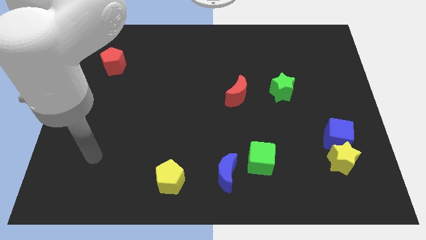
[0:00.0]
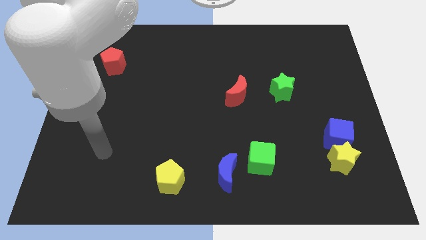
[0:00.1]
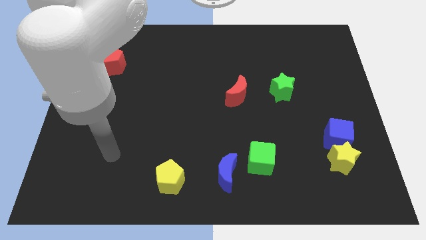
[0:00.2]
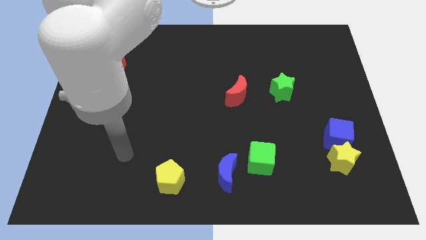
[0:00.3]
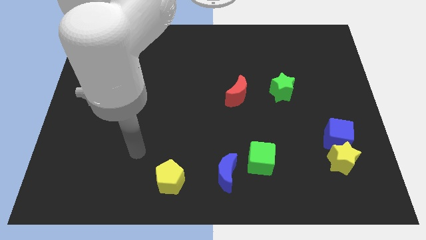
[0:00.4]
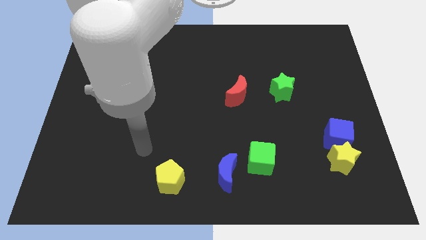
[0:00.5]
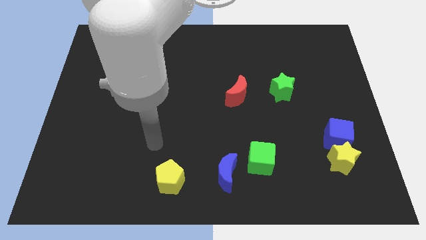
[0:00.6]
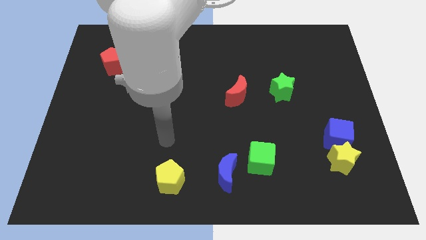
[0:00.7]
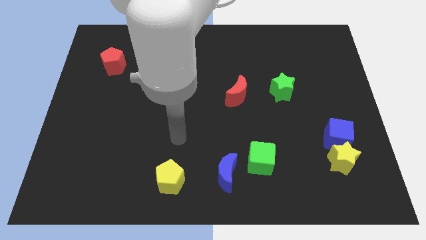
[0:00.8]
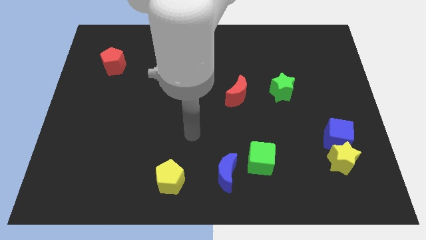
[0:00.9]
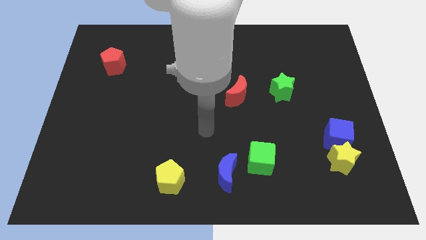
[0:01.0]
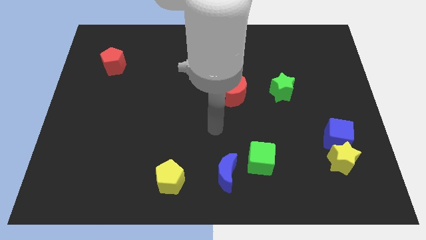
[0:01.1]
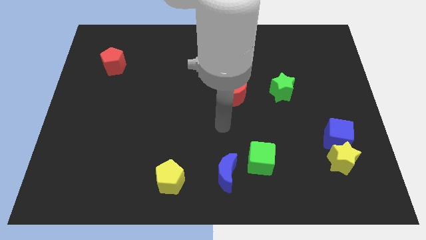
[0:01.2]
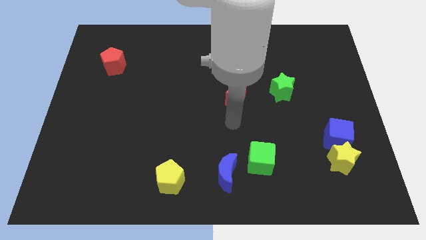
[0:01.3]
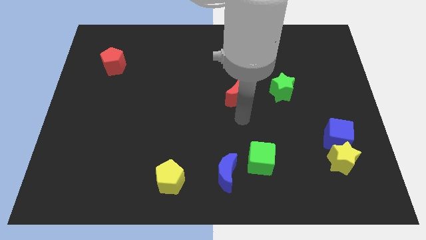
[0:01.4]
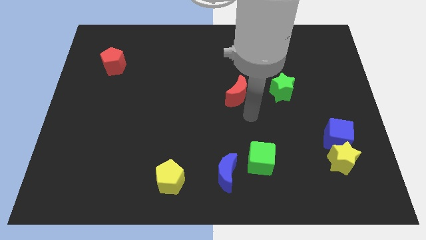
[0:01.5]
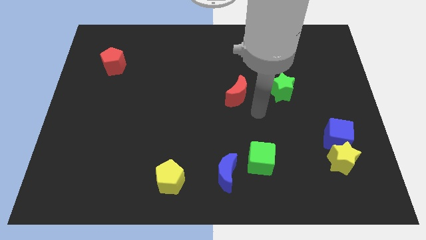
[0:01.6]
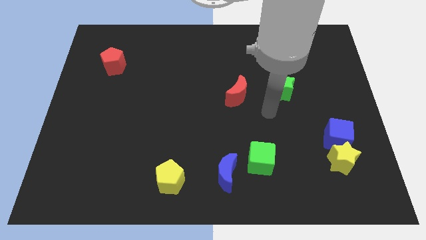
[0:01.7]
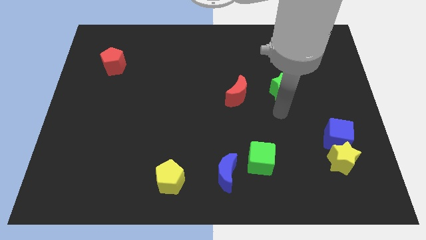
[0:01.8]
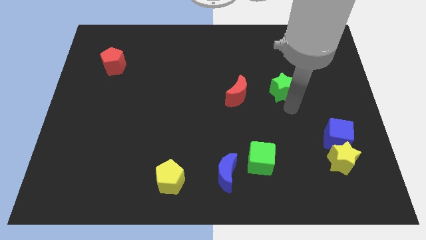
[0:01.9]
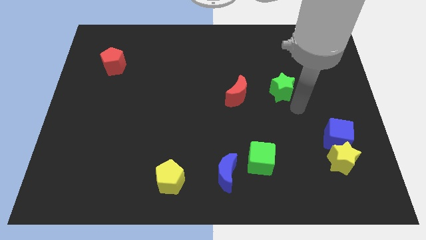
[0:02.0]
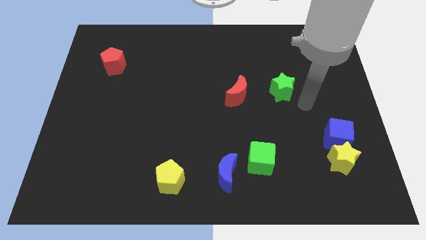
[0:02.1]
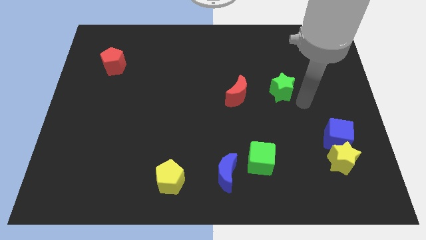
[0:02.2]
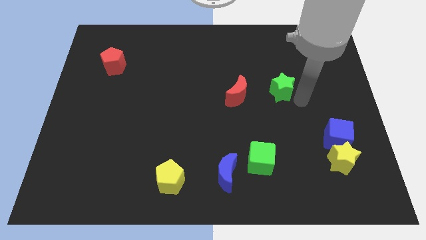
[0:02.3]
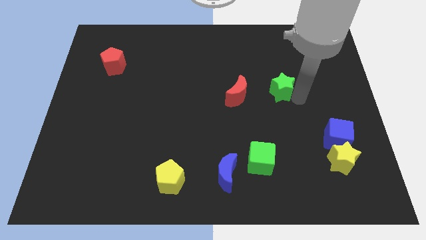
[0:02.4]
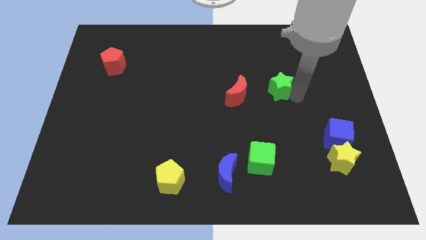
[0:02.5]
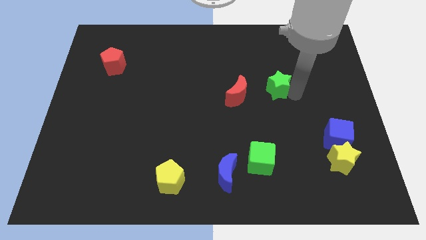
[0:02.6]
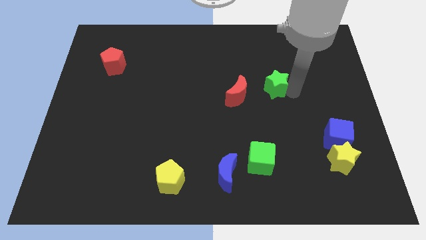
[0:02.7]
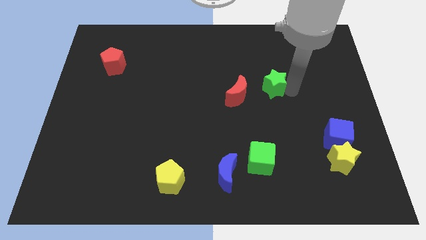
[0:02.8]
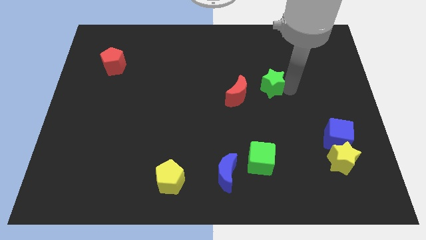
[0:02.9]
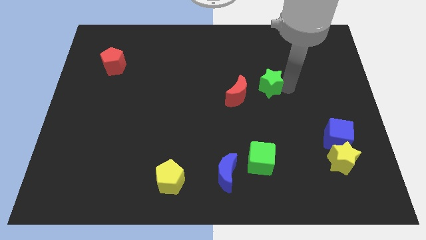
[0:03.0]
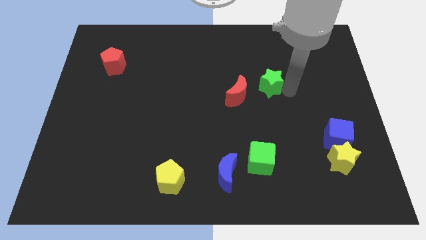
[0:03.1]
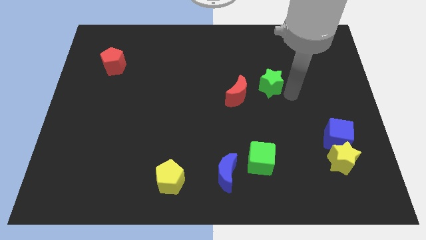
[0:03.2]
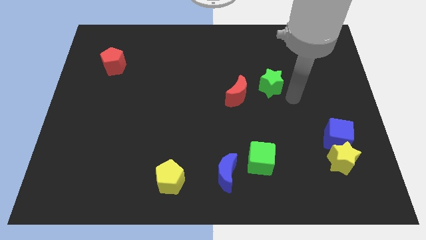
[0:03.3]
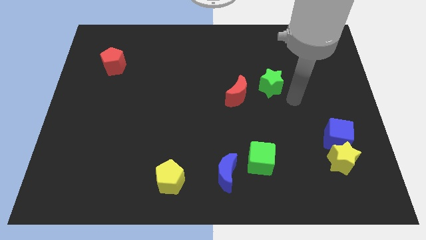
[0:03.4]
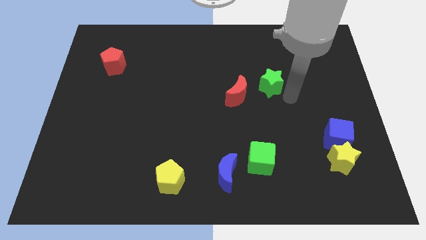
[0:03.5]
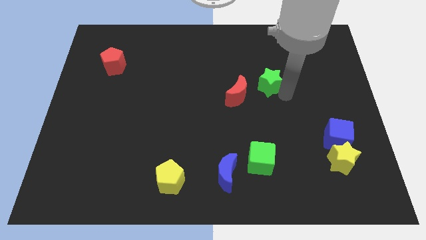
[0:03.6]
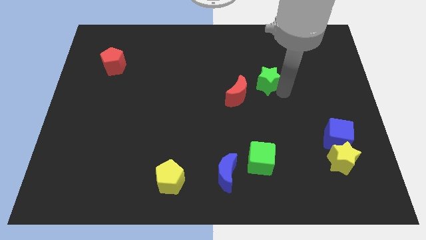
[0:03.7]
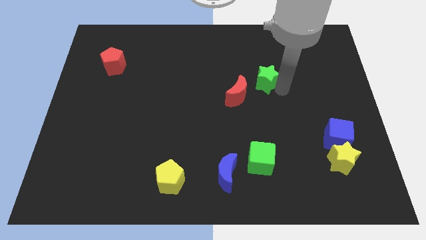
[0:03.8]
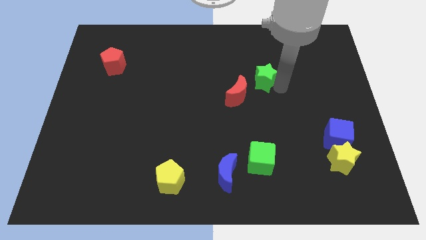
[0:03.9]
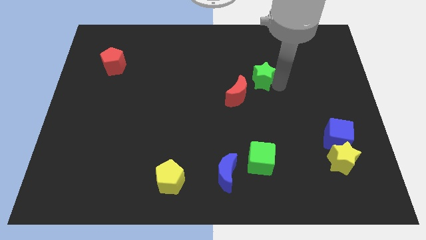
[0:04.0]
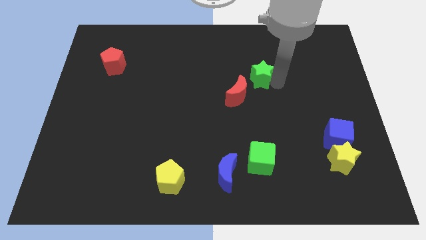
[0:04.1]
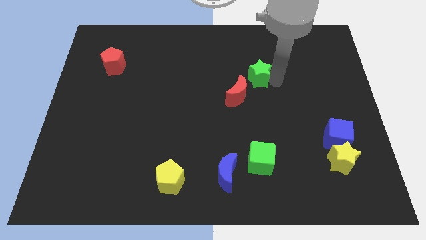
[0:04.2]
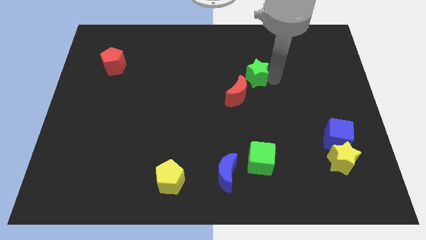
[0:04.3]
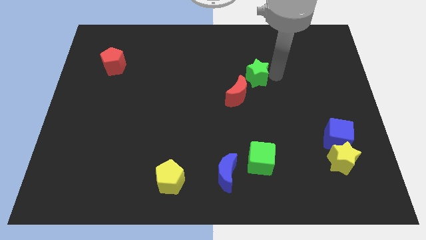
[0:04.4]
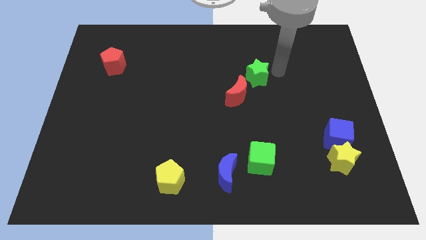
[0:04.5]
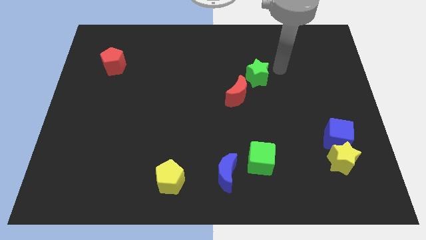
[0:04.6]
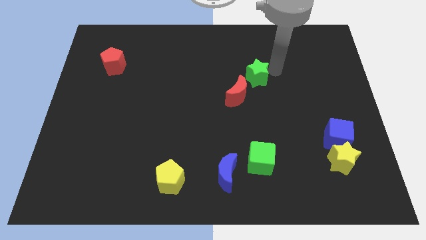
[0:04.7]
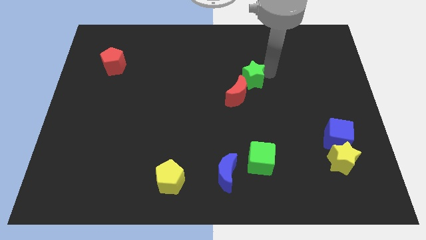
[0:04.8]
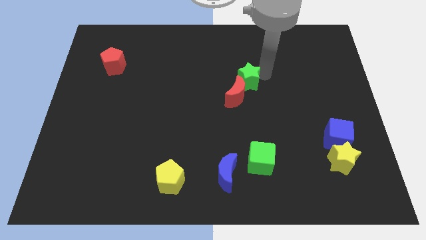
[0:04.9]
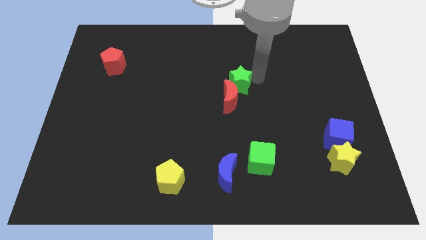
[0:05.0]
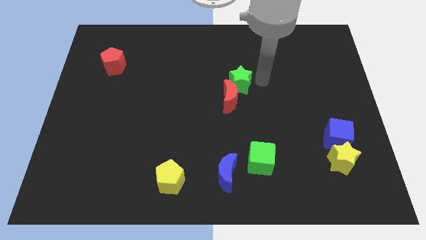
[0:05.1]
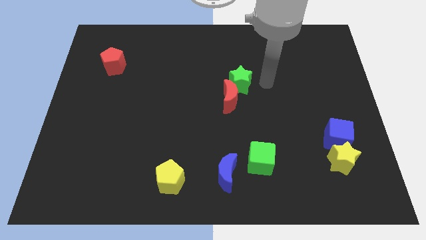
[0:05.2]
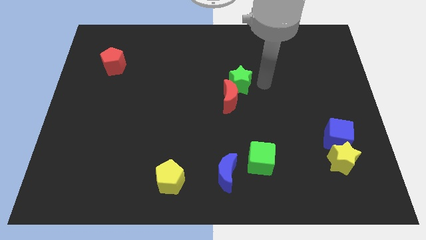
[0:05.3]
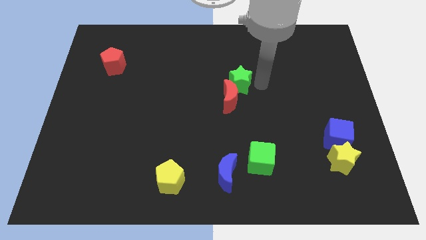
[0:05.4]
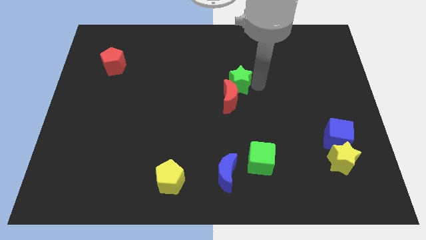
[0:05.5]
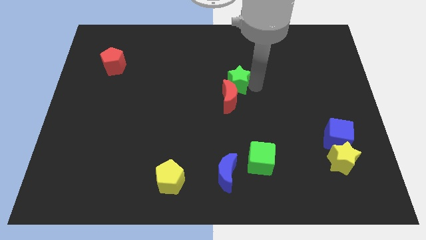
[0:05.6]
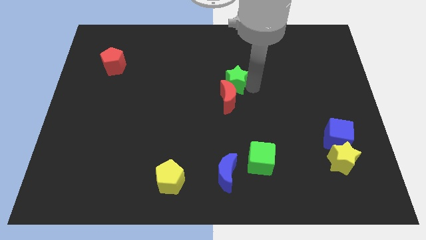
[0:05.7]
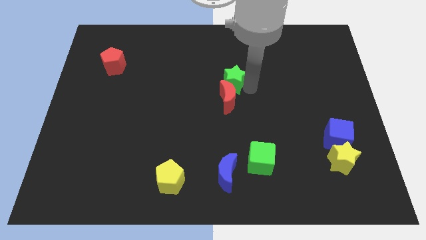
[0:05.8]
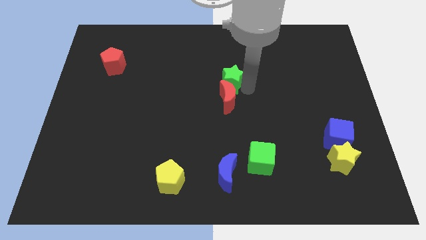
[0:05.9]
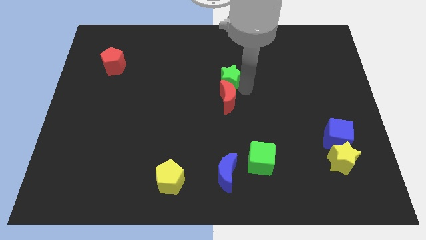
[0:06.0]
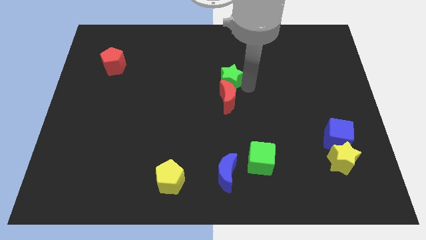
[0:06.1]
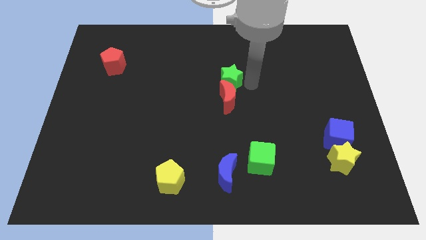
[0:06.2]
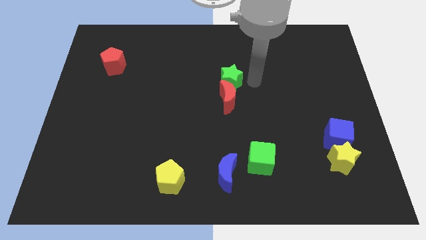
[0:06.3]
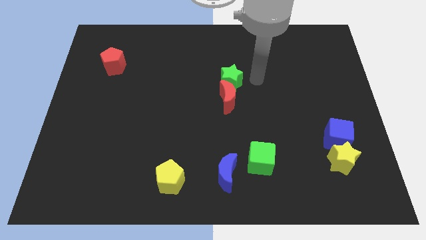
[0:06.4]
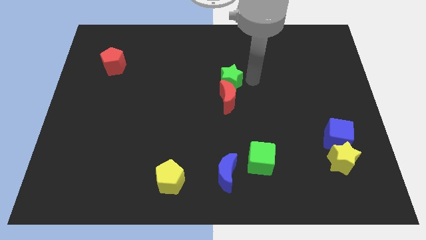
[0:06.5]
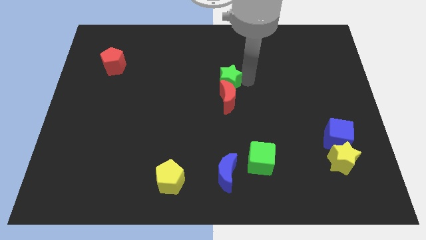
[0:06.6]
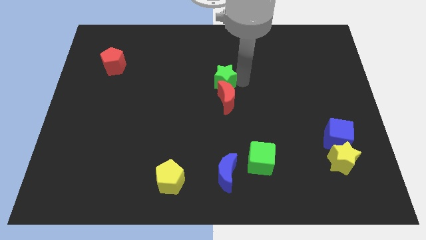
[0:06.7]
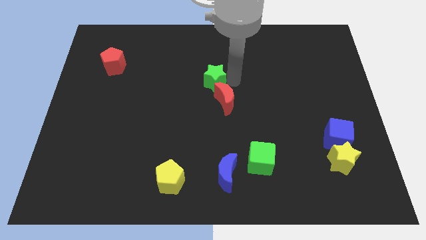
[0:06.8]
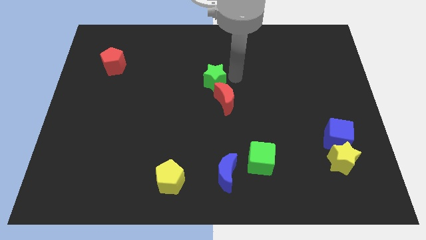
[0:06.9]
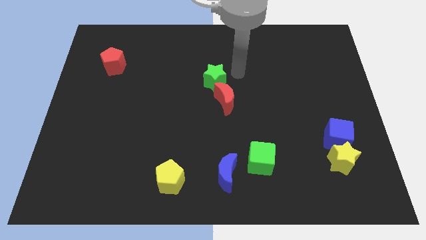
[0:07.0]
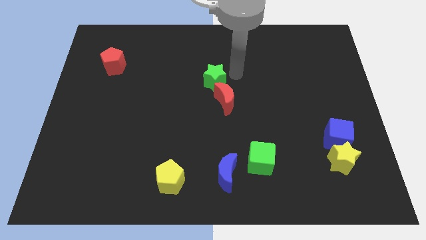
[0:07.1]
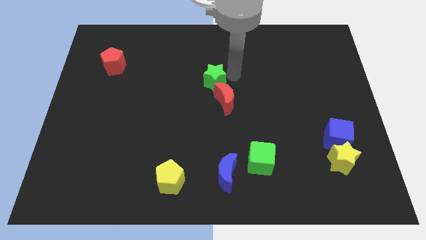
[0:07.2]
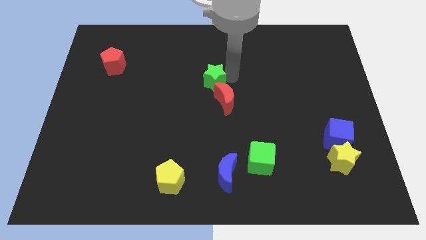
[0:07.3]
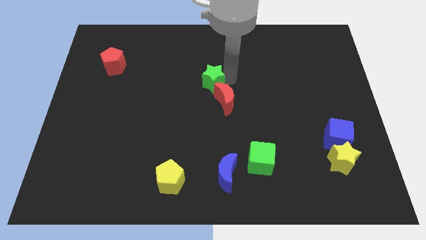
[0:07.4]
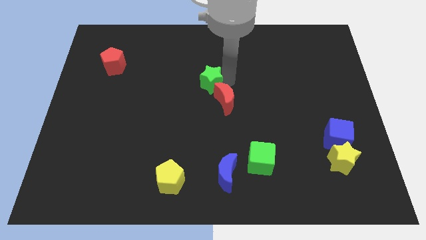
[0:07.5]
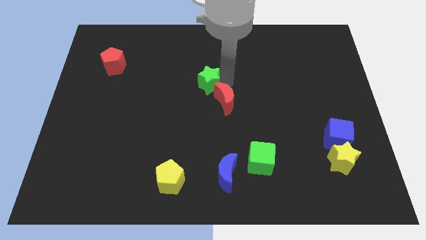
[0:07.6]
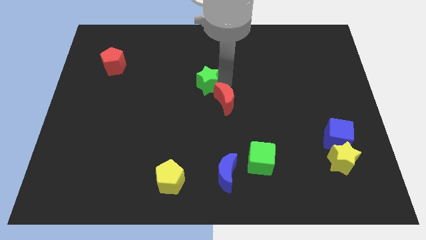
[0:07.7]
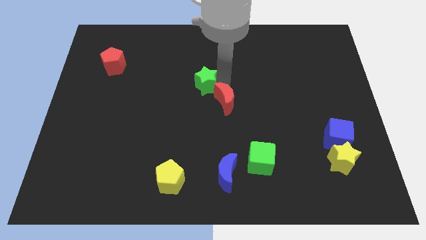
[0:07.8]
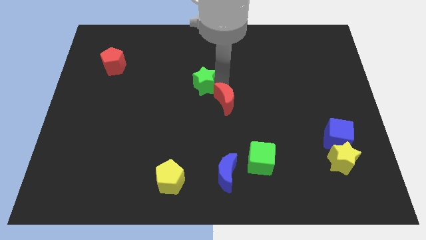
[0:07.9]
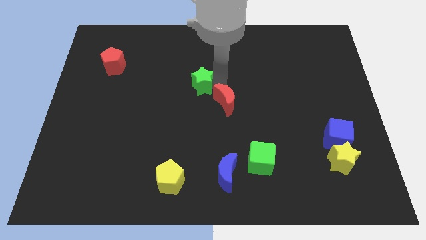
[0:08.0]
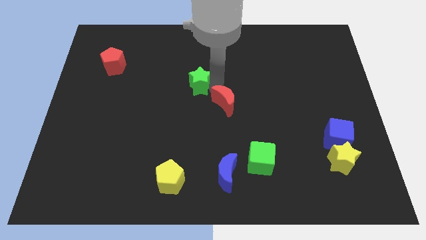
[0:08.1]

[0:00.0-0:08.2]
push the green star left

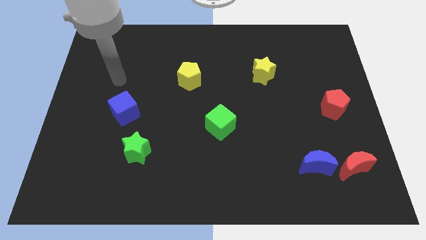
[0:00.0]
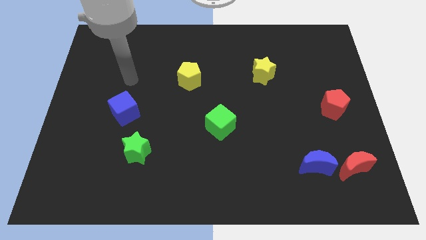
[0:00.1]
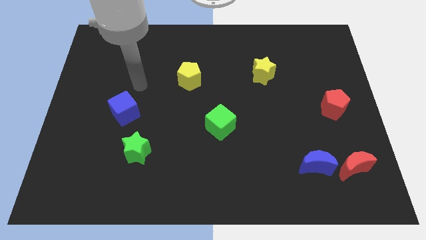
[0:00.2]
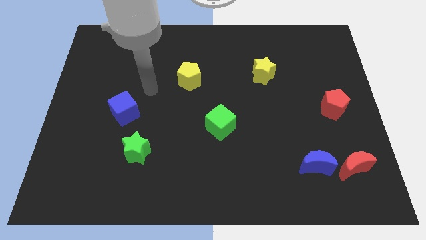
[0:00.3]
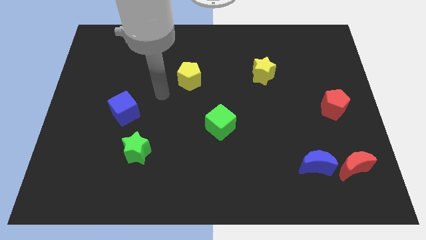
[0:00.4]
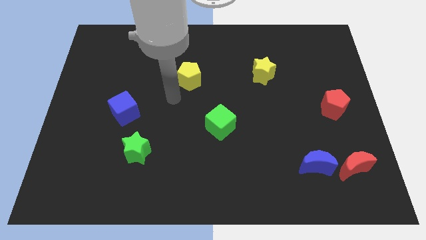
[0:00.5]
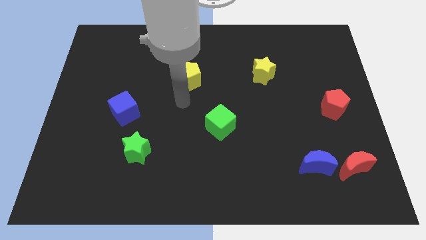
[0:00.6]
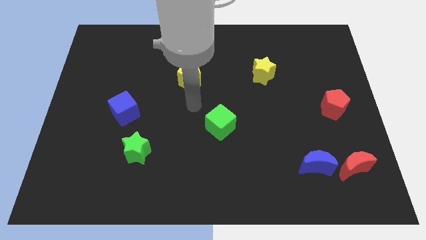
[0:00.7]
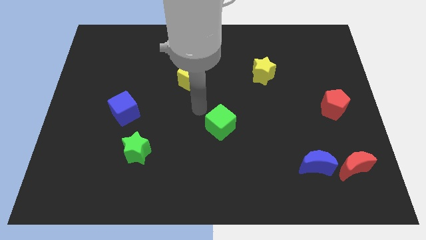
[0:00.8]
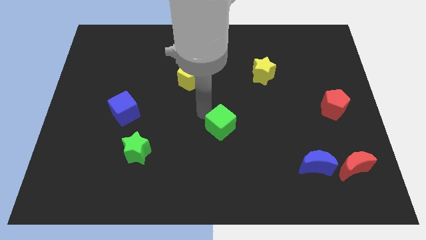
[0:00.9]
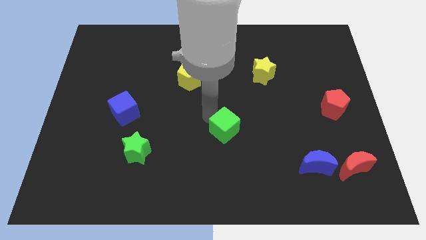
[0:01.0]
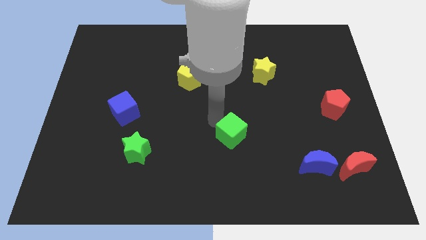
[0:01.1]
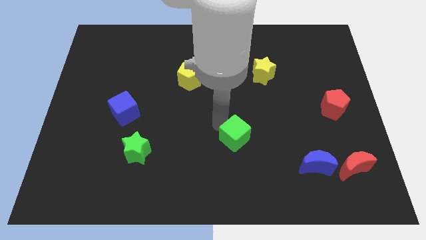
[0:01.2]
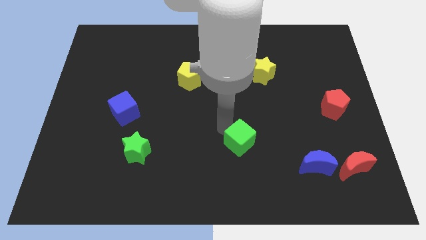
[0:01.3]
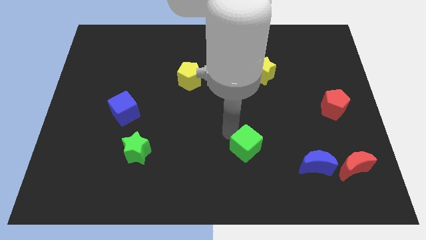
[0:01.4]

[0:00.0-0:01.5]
slightly move the green cube downwards and then to the right
